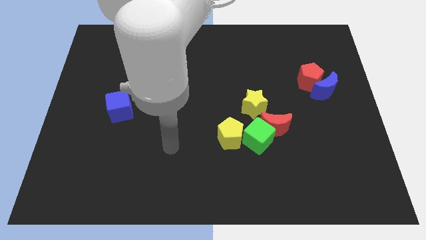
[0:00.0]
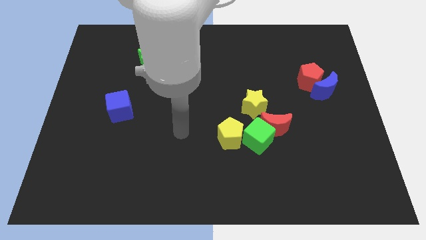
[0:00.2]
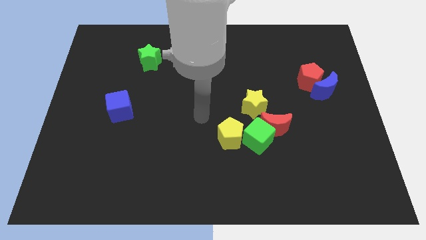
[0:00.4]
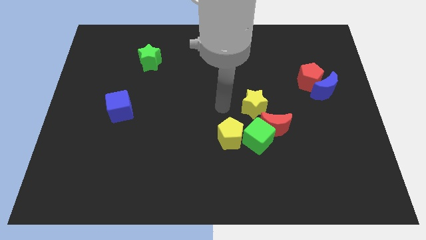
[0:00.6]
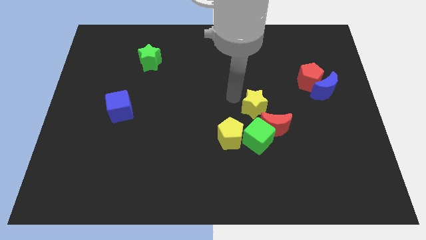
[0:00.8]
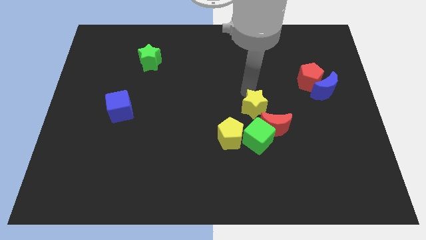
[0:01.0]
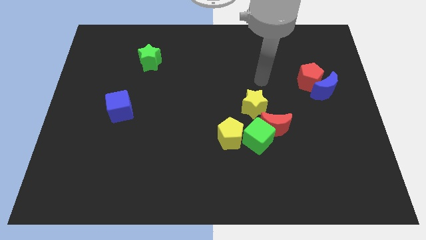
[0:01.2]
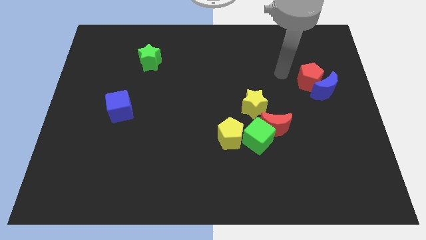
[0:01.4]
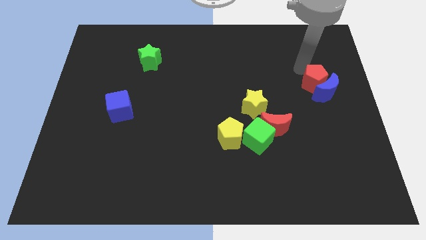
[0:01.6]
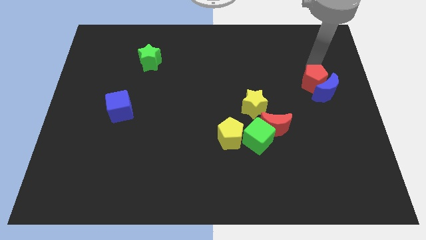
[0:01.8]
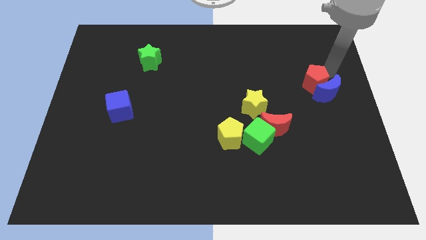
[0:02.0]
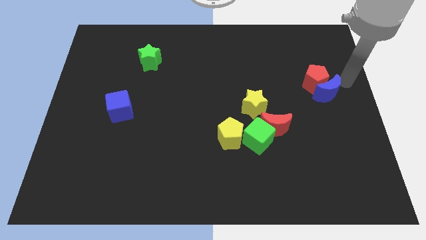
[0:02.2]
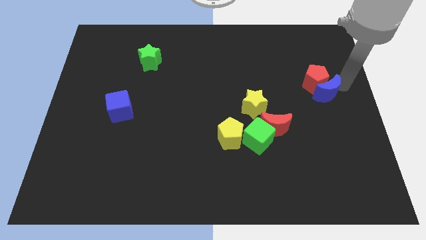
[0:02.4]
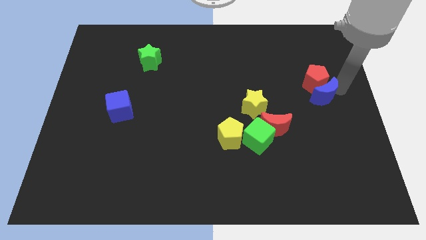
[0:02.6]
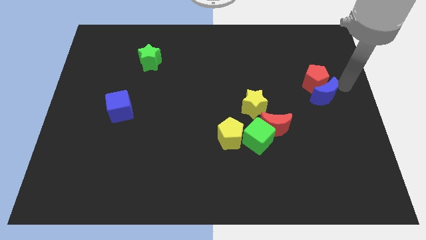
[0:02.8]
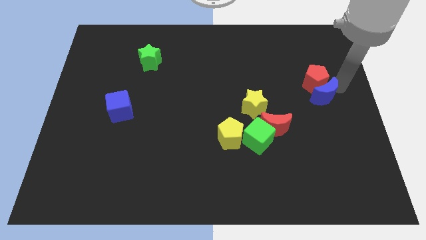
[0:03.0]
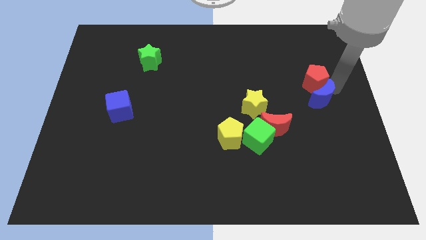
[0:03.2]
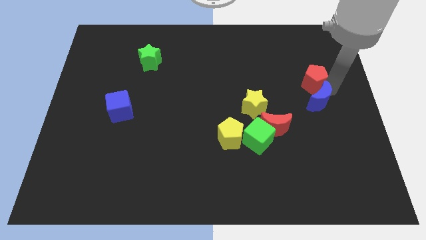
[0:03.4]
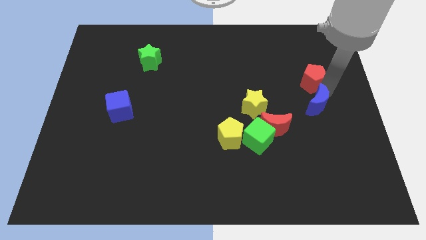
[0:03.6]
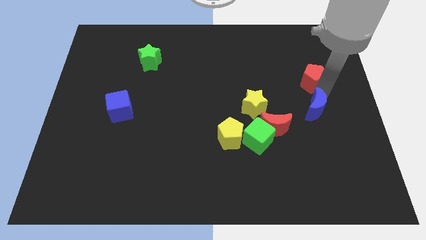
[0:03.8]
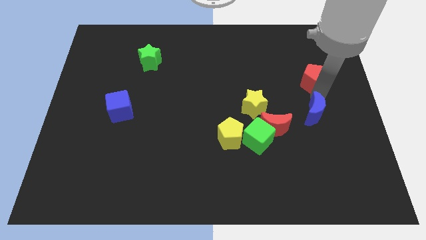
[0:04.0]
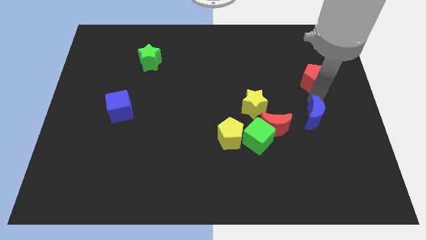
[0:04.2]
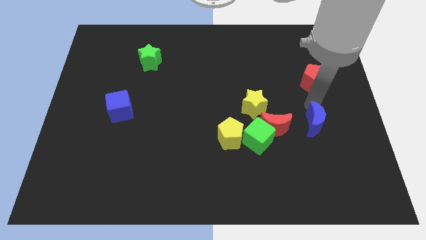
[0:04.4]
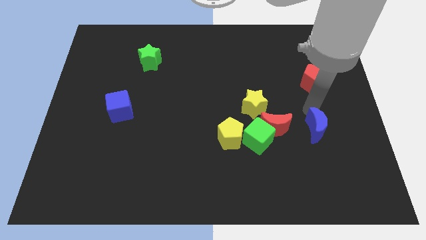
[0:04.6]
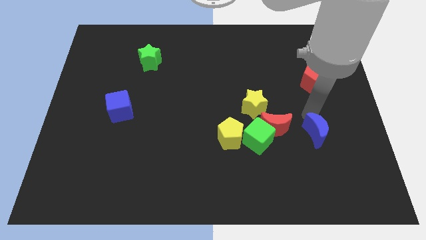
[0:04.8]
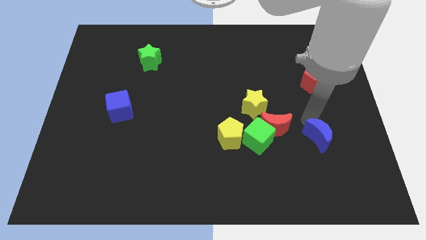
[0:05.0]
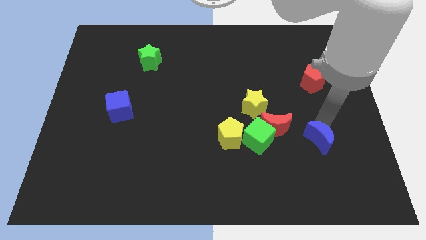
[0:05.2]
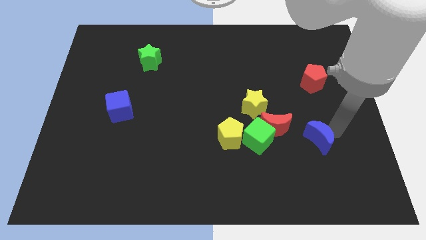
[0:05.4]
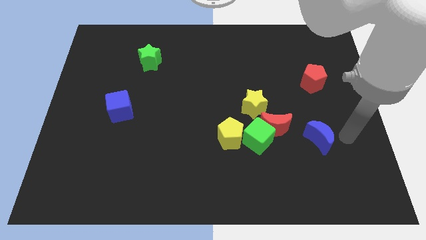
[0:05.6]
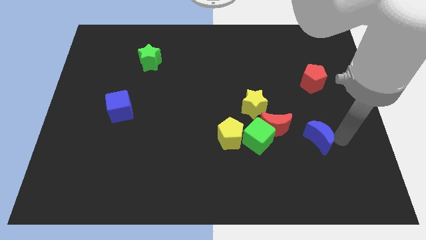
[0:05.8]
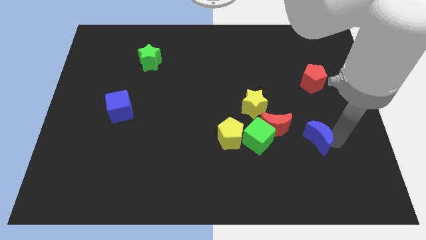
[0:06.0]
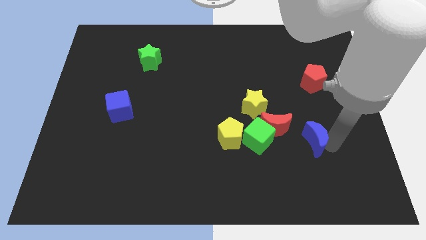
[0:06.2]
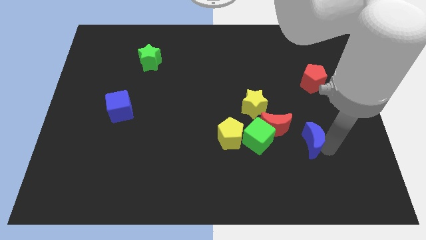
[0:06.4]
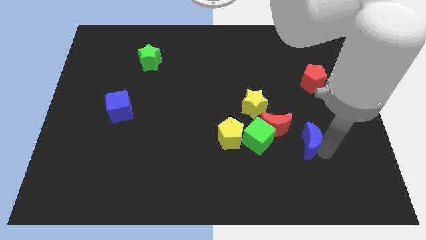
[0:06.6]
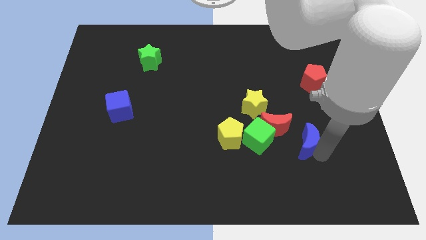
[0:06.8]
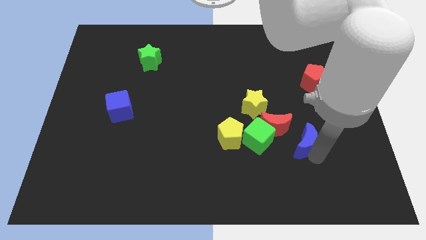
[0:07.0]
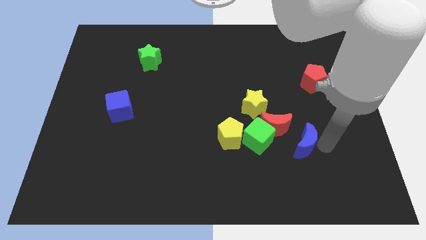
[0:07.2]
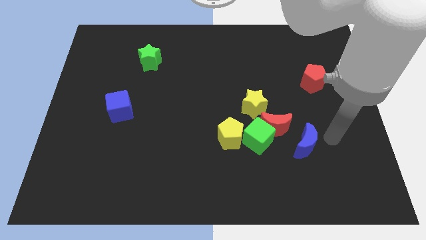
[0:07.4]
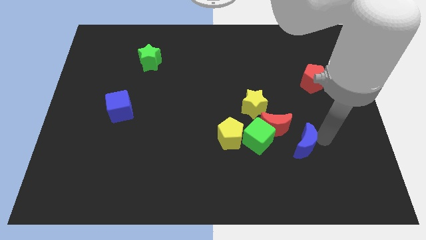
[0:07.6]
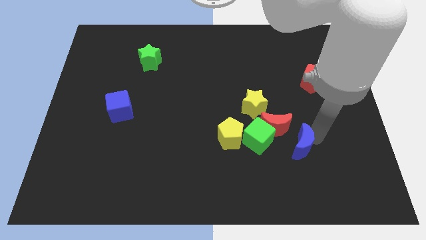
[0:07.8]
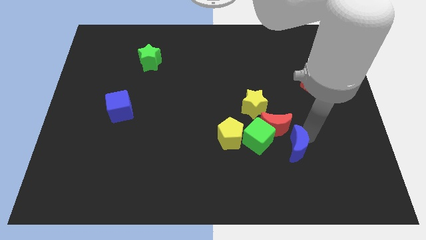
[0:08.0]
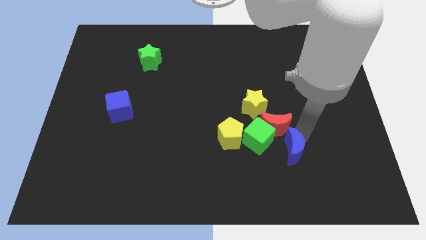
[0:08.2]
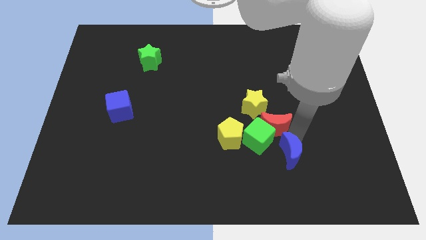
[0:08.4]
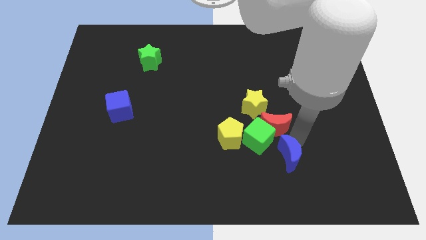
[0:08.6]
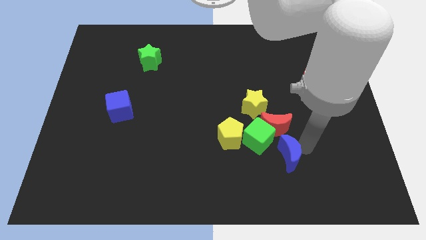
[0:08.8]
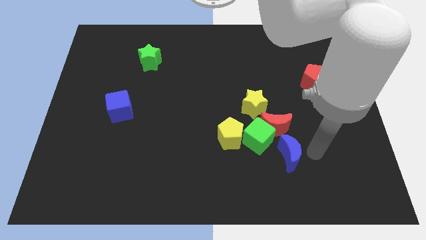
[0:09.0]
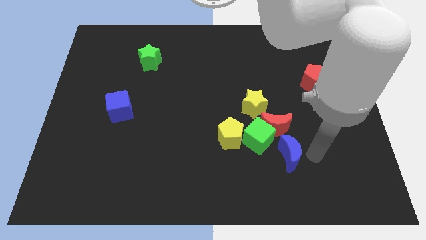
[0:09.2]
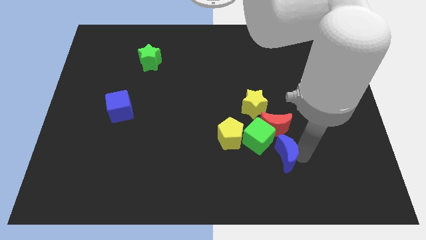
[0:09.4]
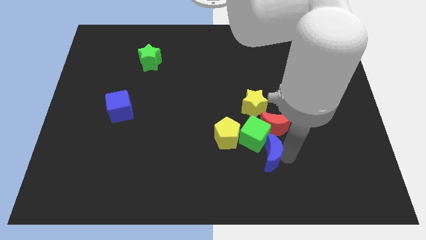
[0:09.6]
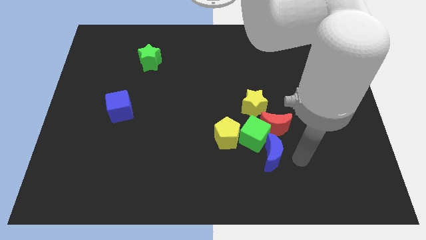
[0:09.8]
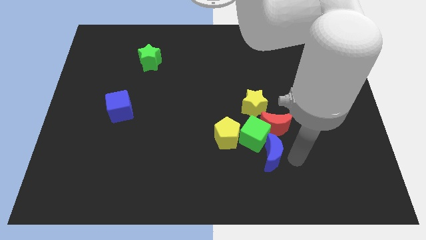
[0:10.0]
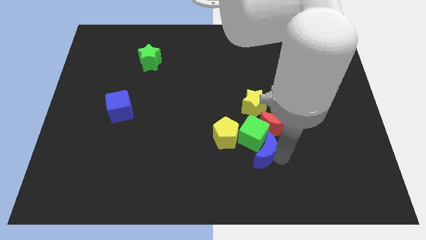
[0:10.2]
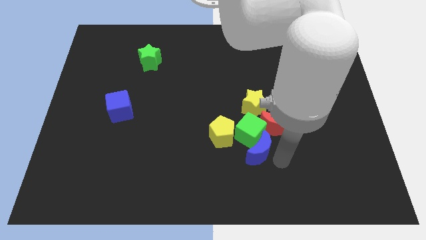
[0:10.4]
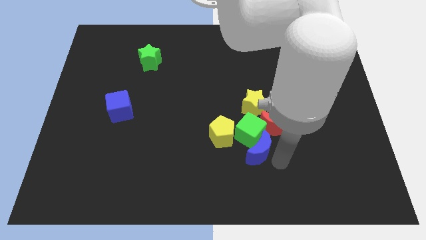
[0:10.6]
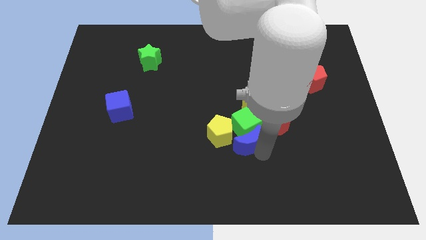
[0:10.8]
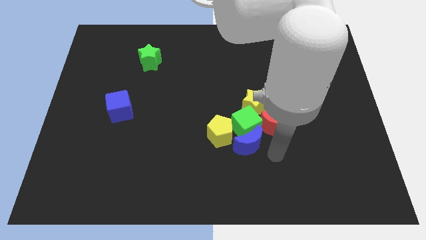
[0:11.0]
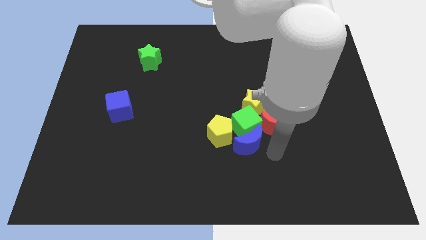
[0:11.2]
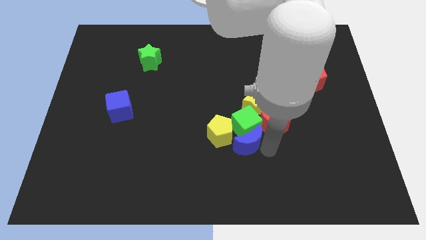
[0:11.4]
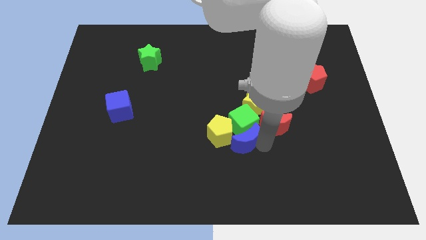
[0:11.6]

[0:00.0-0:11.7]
put the blue moon to the yellow pentagon

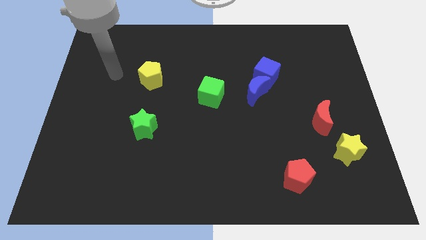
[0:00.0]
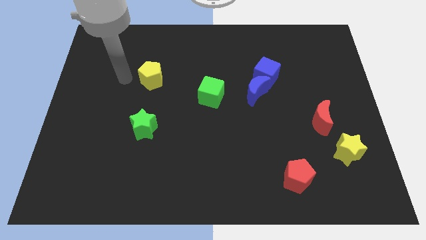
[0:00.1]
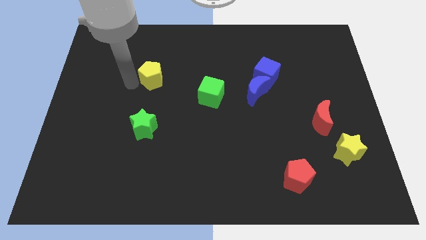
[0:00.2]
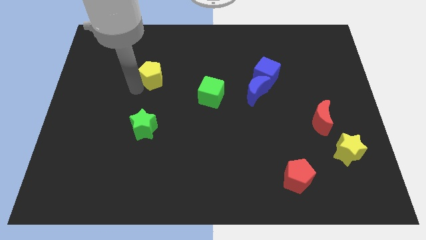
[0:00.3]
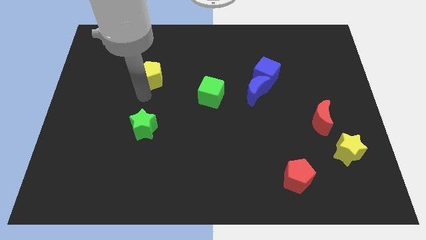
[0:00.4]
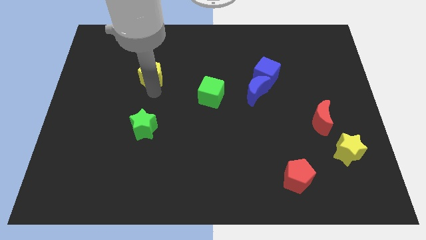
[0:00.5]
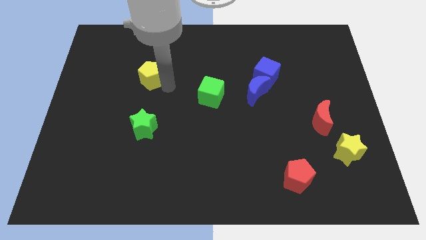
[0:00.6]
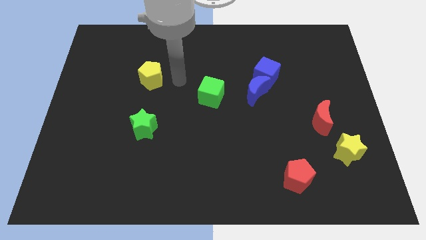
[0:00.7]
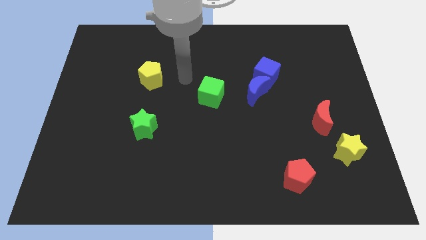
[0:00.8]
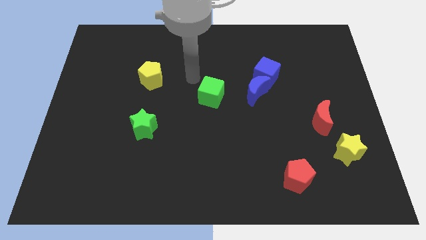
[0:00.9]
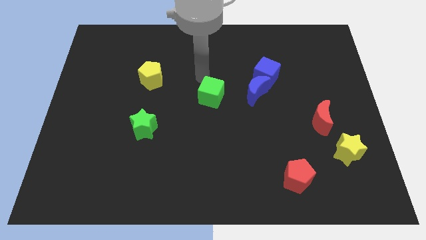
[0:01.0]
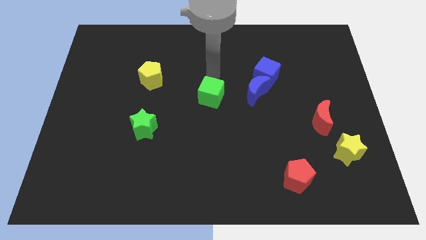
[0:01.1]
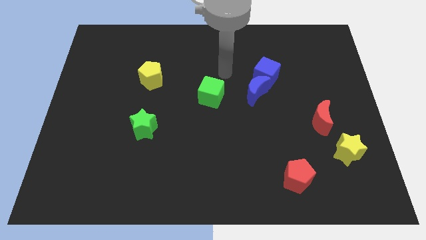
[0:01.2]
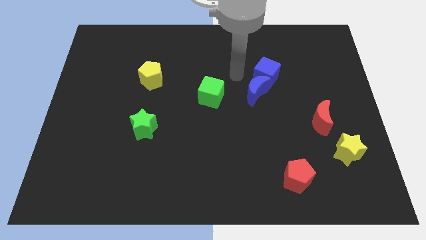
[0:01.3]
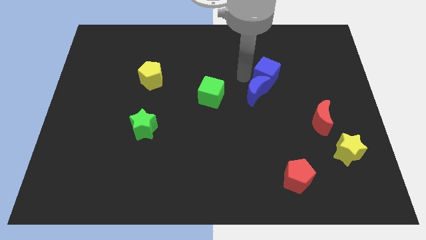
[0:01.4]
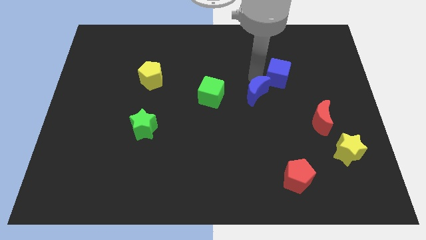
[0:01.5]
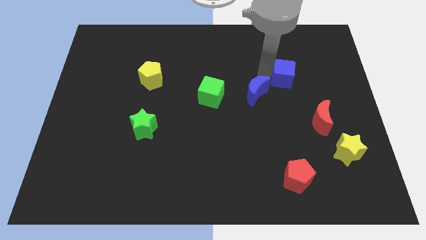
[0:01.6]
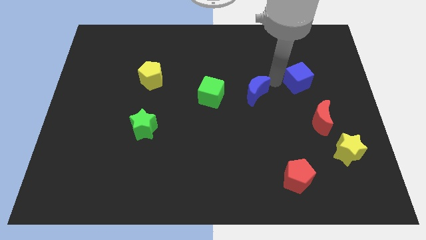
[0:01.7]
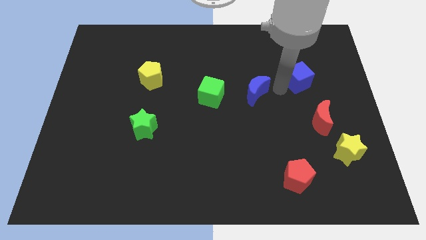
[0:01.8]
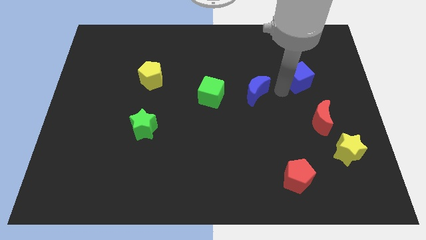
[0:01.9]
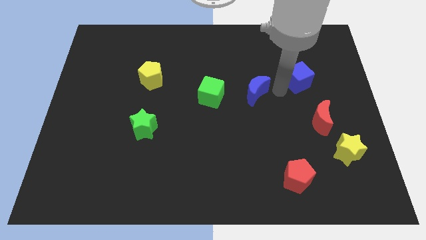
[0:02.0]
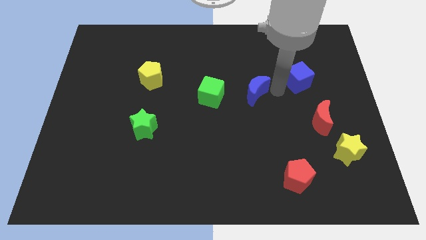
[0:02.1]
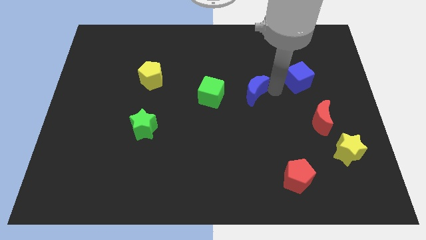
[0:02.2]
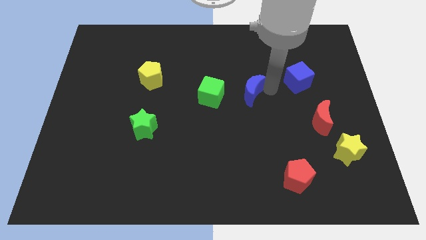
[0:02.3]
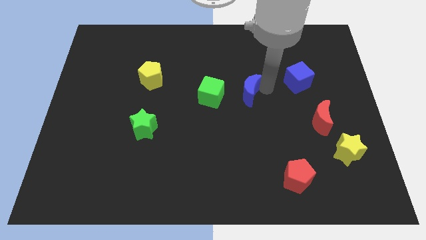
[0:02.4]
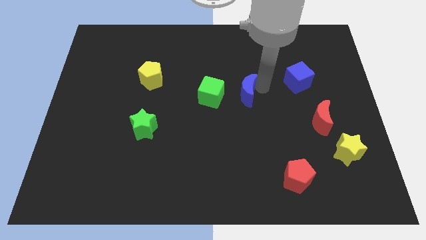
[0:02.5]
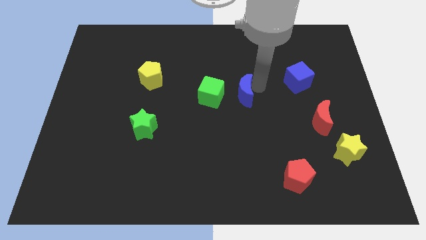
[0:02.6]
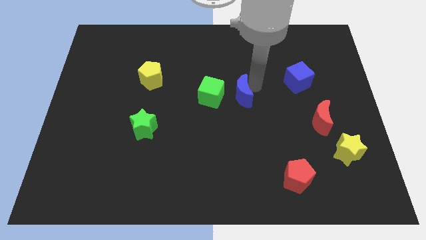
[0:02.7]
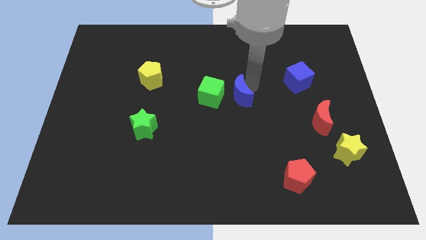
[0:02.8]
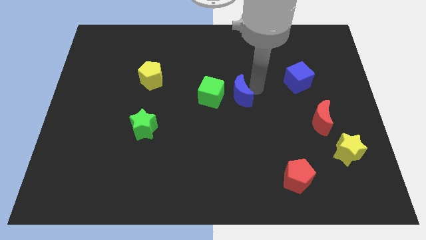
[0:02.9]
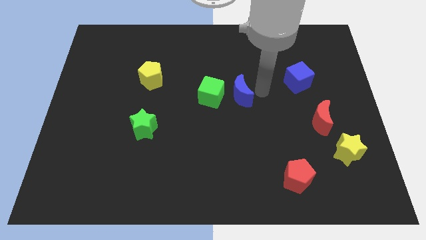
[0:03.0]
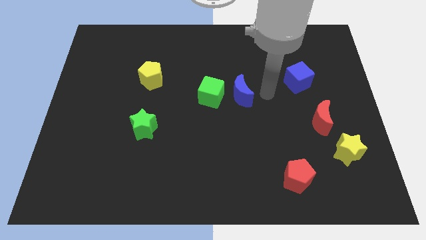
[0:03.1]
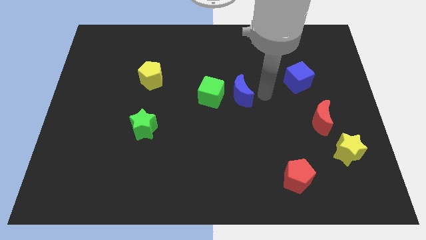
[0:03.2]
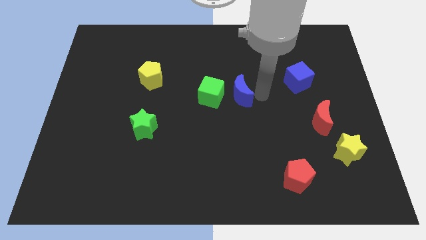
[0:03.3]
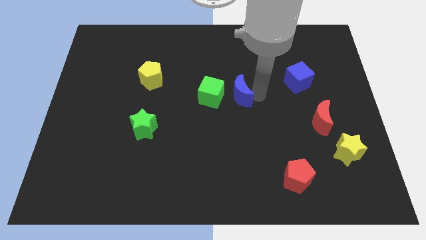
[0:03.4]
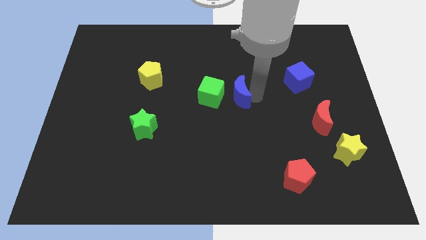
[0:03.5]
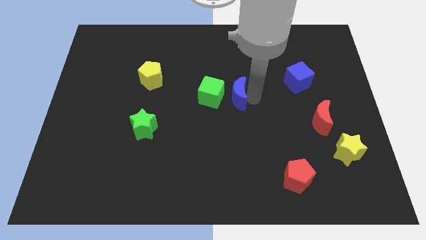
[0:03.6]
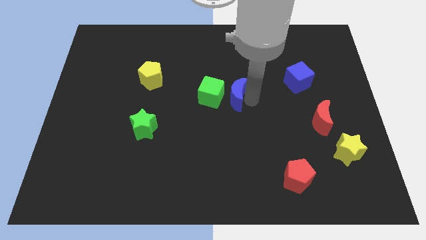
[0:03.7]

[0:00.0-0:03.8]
slide the blue moon next to the green cube
